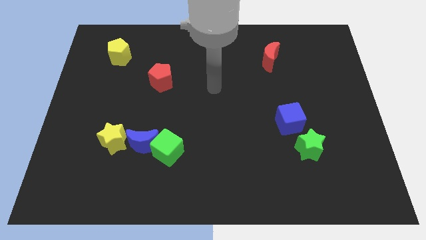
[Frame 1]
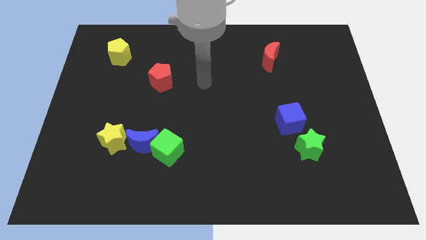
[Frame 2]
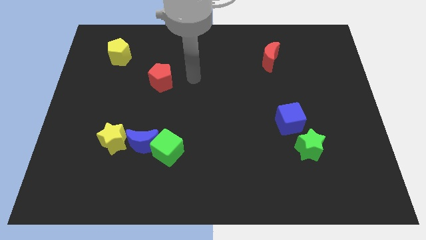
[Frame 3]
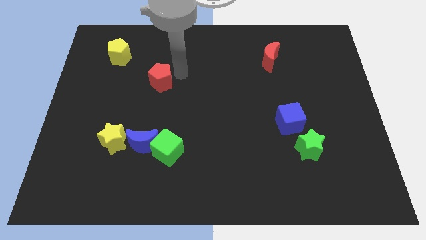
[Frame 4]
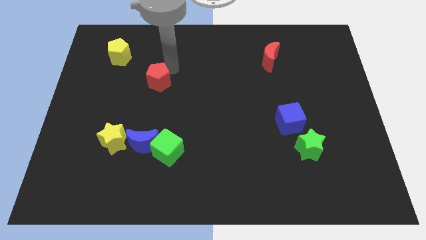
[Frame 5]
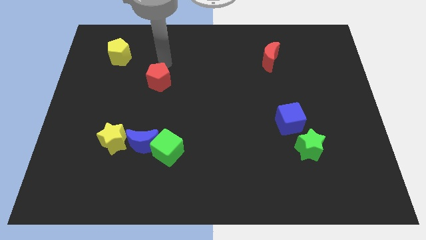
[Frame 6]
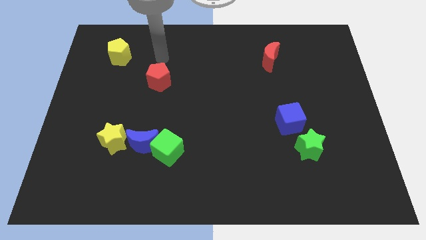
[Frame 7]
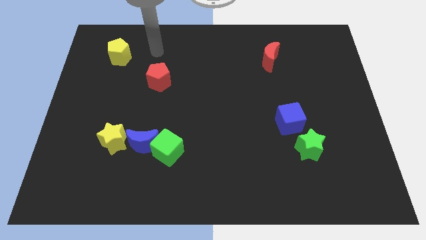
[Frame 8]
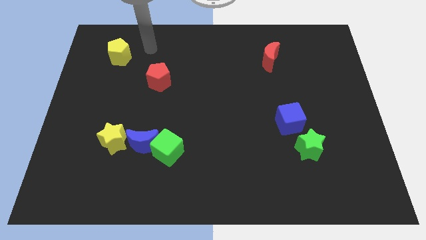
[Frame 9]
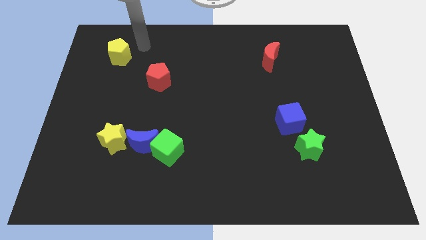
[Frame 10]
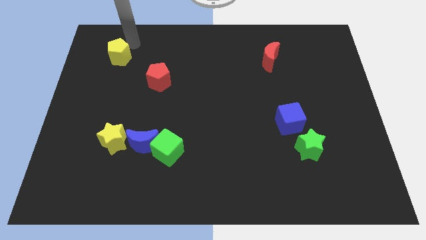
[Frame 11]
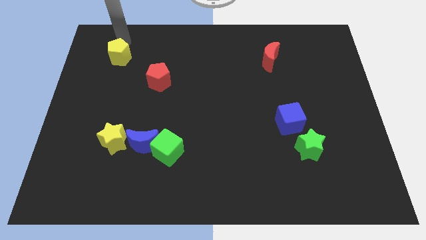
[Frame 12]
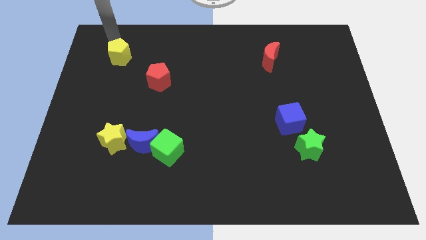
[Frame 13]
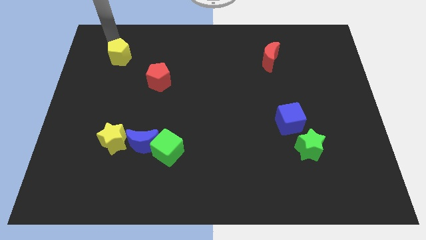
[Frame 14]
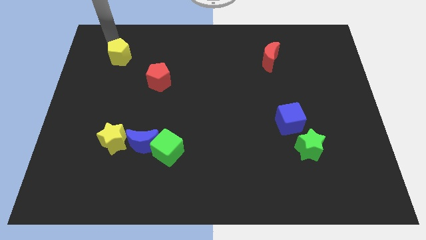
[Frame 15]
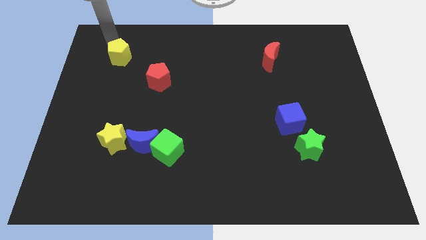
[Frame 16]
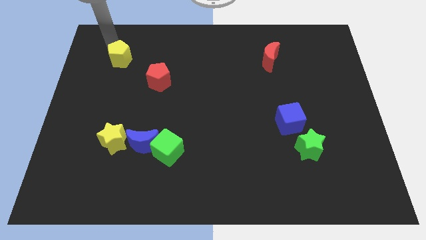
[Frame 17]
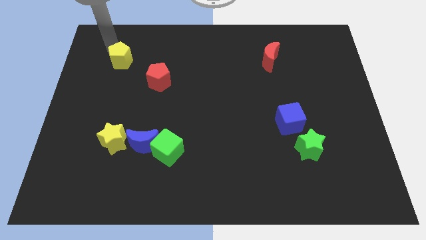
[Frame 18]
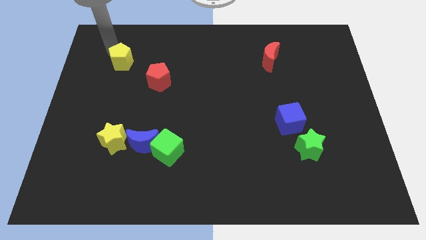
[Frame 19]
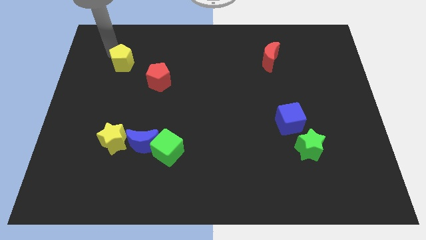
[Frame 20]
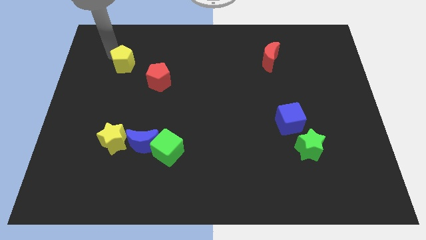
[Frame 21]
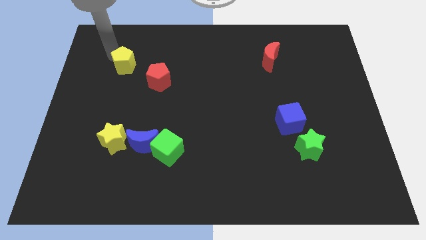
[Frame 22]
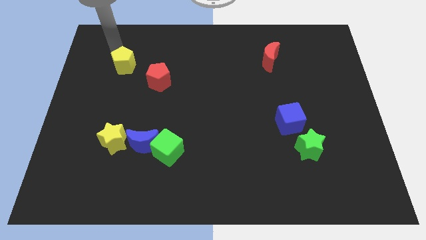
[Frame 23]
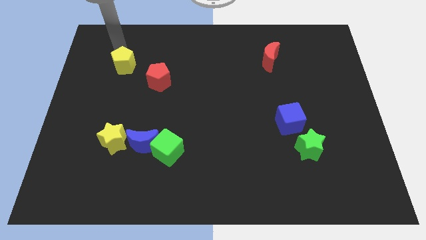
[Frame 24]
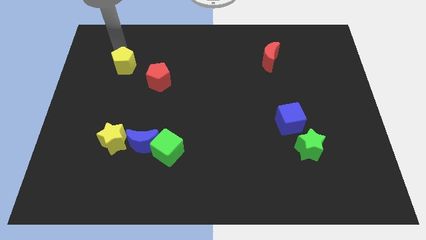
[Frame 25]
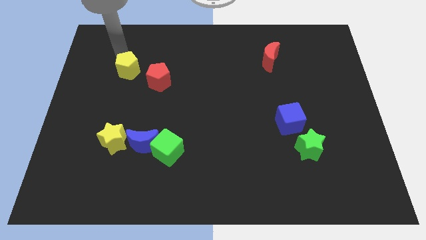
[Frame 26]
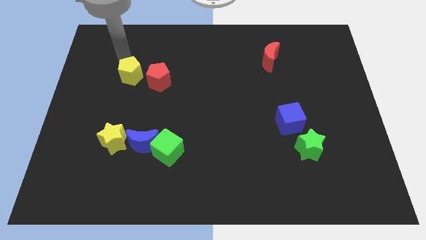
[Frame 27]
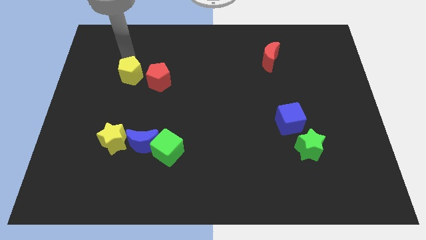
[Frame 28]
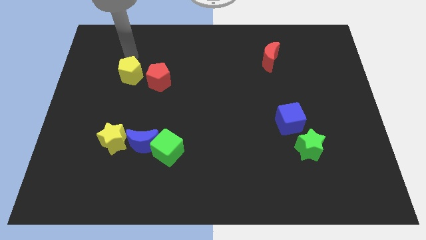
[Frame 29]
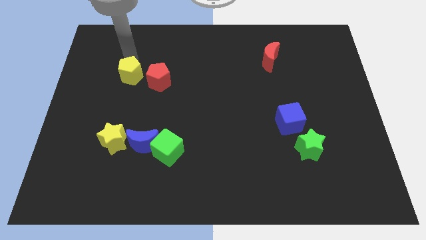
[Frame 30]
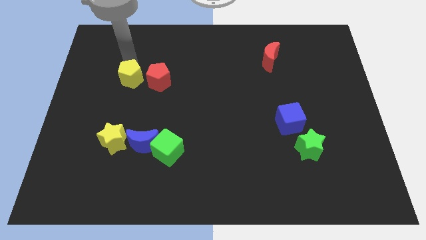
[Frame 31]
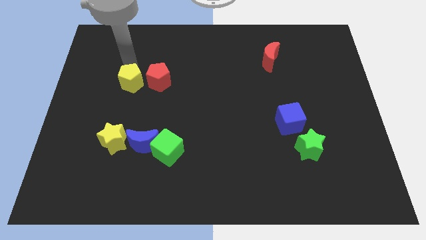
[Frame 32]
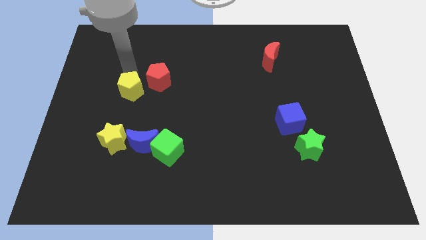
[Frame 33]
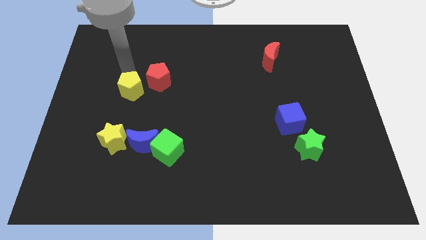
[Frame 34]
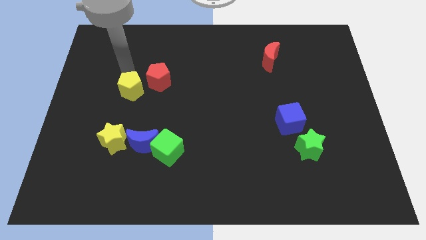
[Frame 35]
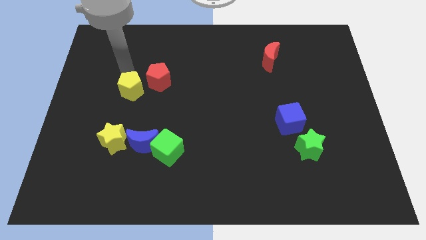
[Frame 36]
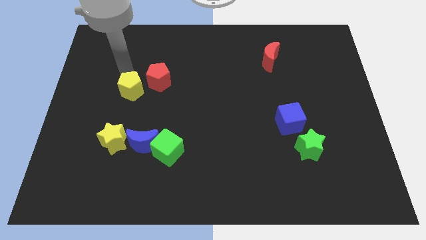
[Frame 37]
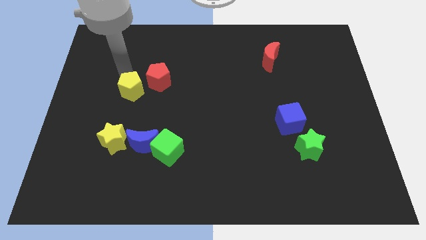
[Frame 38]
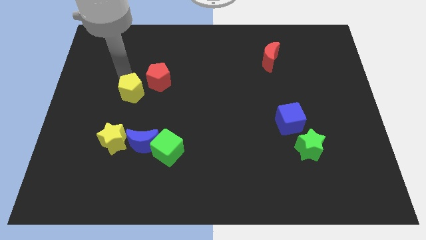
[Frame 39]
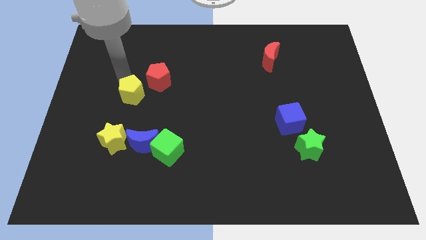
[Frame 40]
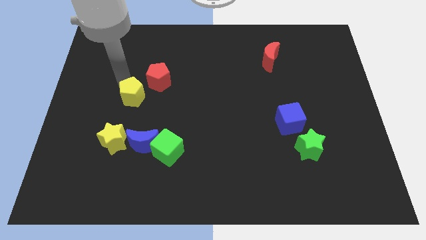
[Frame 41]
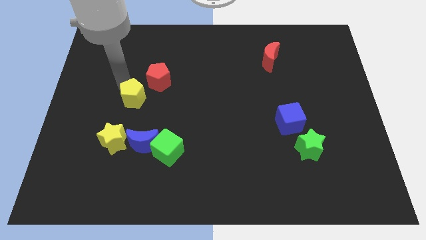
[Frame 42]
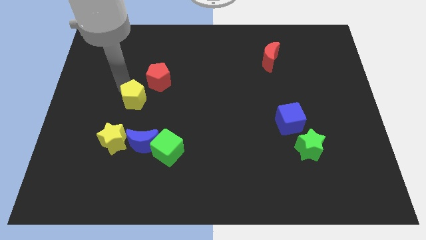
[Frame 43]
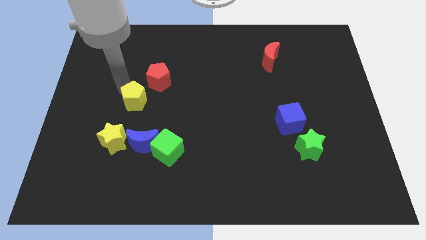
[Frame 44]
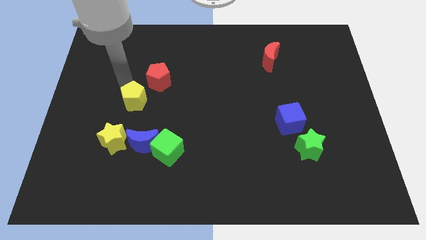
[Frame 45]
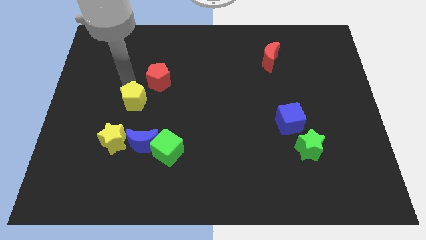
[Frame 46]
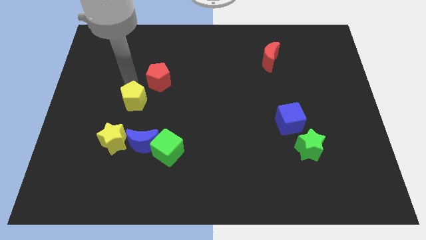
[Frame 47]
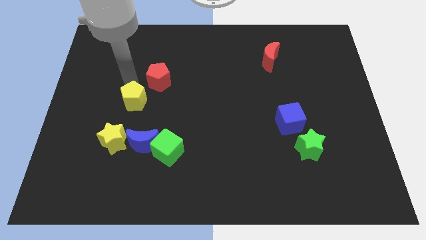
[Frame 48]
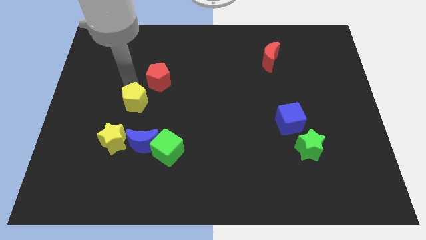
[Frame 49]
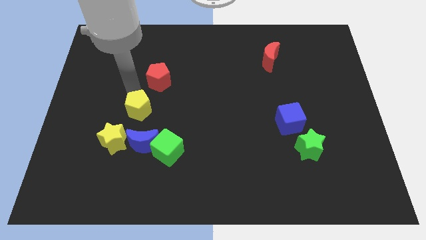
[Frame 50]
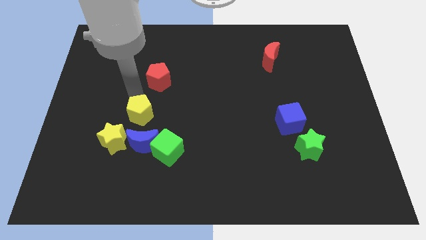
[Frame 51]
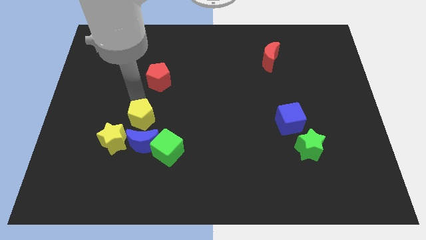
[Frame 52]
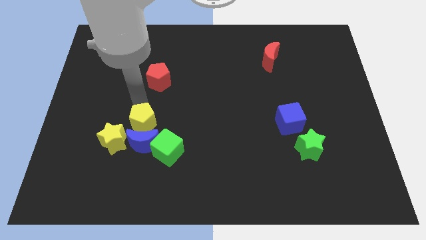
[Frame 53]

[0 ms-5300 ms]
slide the yellow pentagon close to the blue moon

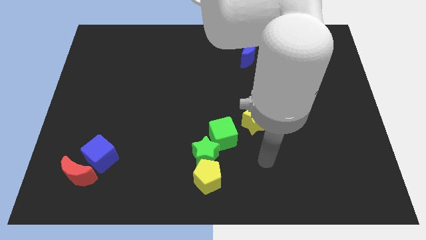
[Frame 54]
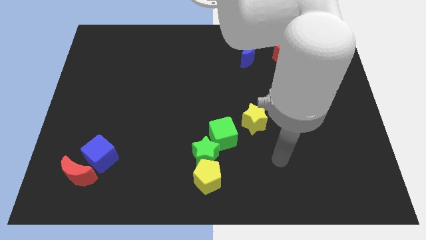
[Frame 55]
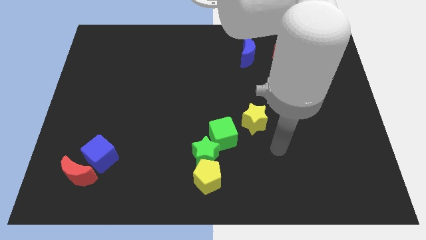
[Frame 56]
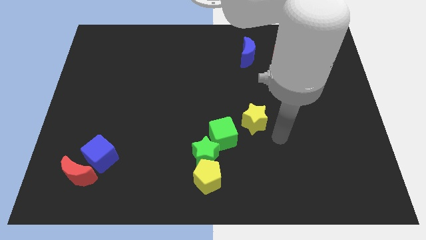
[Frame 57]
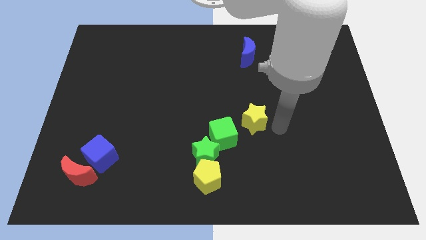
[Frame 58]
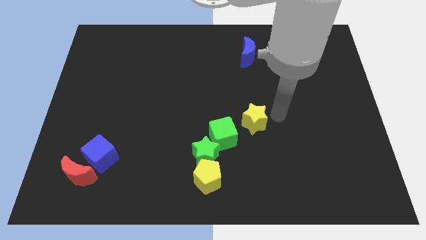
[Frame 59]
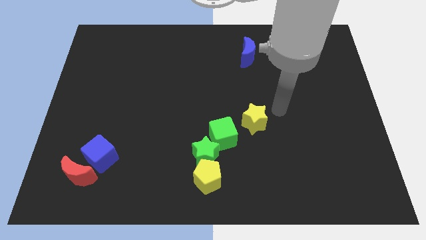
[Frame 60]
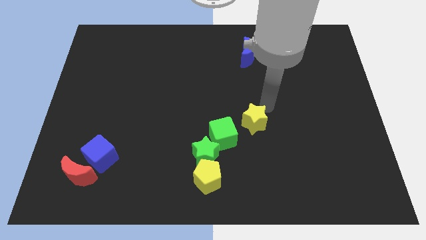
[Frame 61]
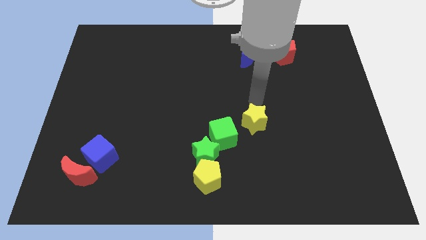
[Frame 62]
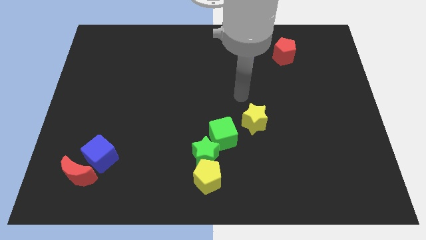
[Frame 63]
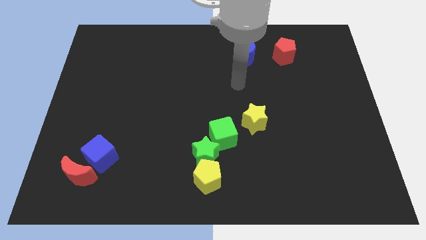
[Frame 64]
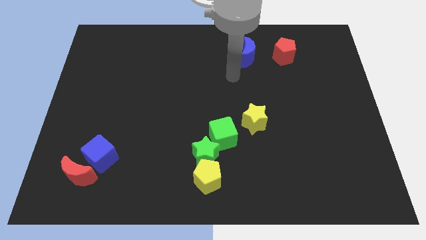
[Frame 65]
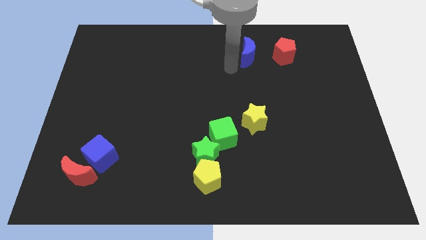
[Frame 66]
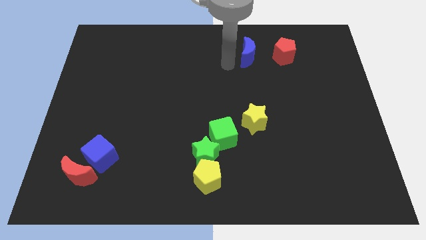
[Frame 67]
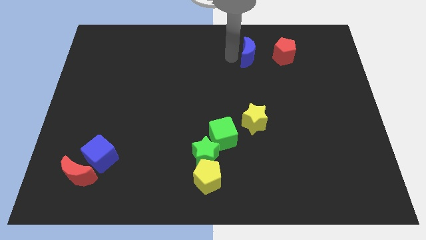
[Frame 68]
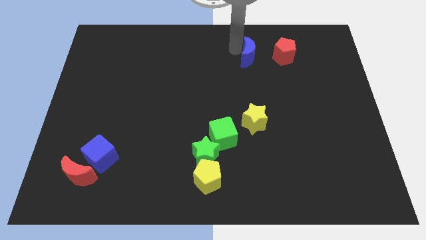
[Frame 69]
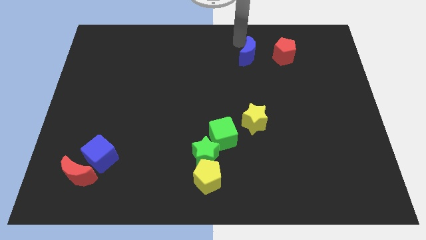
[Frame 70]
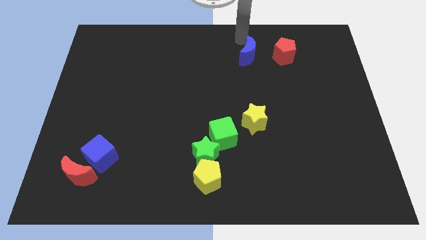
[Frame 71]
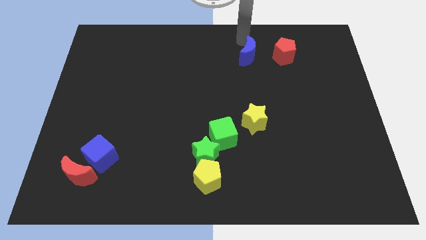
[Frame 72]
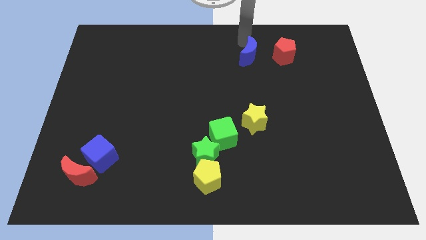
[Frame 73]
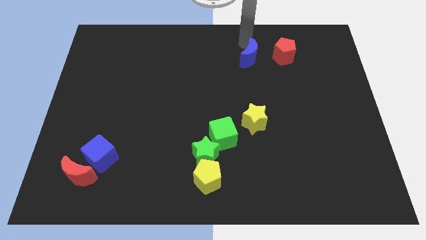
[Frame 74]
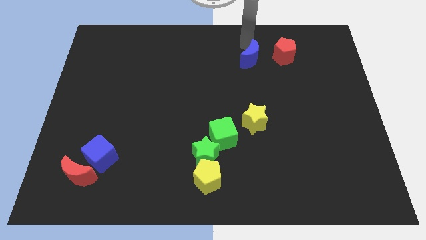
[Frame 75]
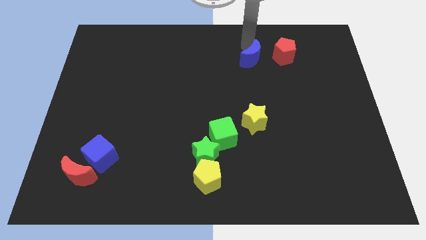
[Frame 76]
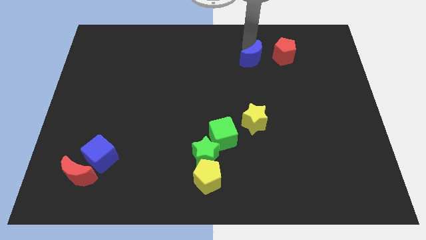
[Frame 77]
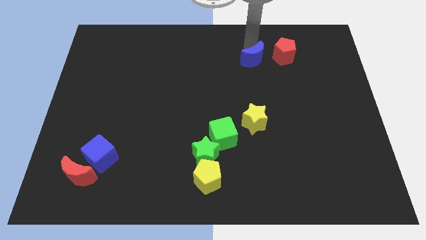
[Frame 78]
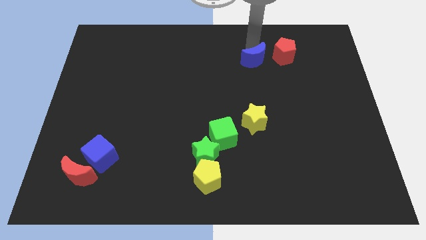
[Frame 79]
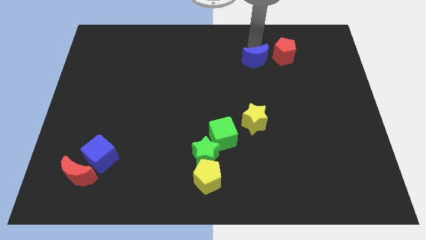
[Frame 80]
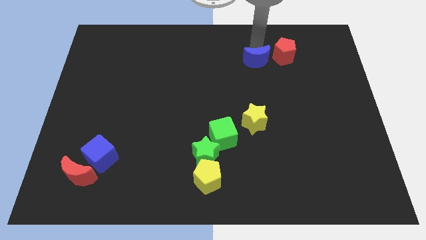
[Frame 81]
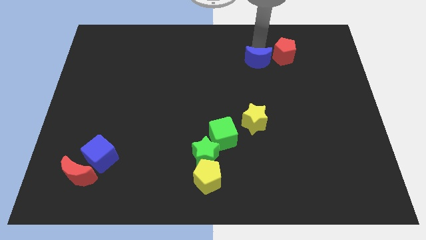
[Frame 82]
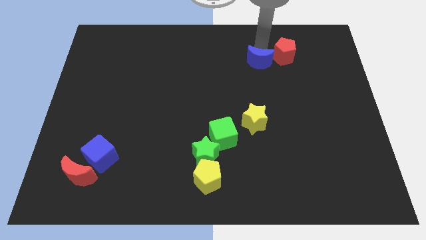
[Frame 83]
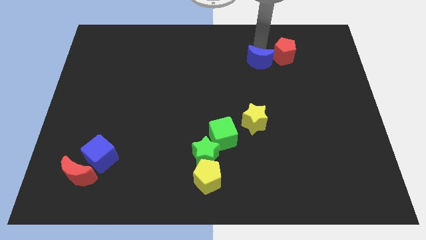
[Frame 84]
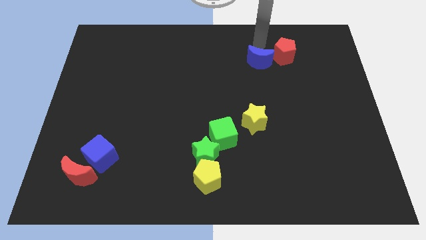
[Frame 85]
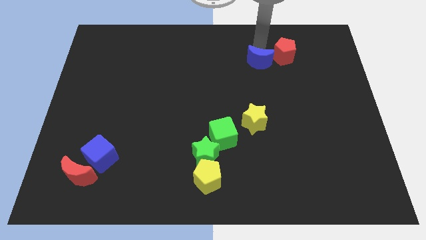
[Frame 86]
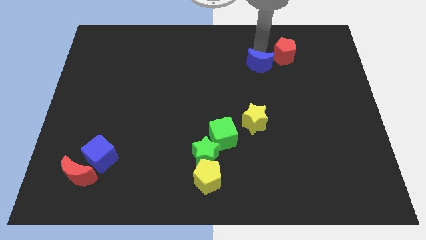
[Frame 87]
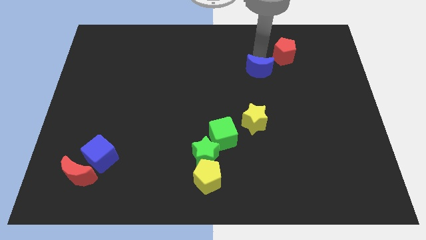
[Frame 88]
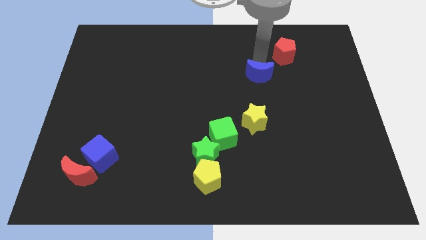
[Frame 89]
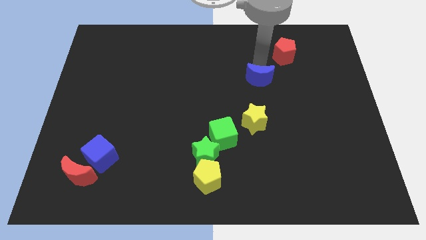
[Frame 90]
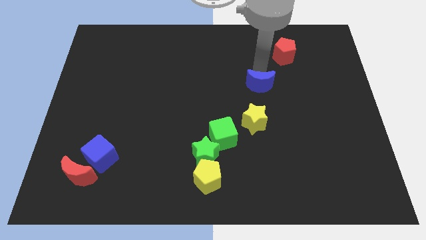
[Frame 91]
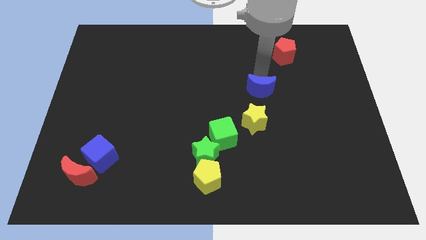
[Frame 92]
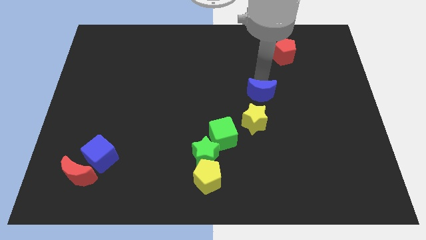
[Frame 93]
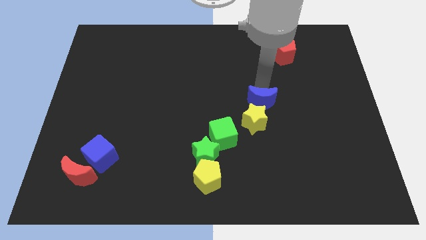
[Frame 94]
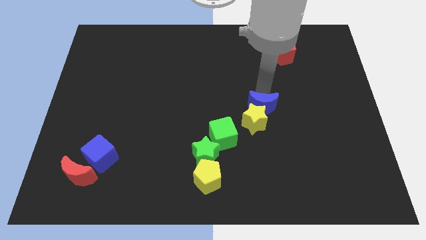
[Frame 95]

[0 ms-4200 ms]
push the blue moon next to the yellow star
